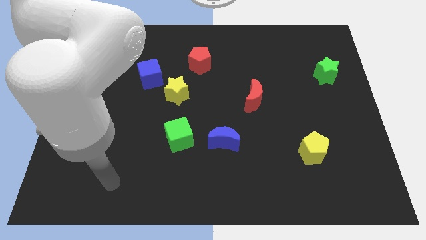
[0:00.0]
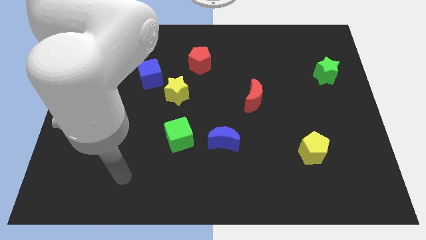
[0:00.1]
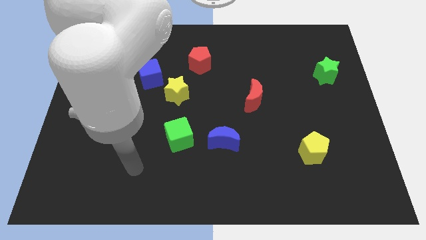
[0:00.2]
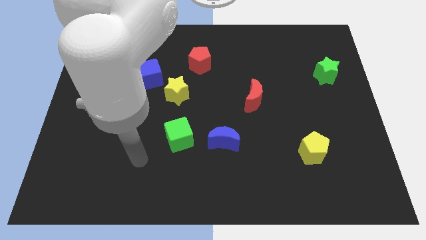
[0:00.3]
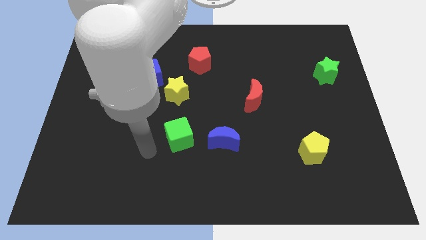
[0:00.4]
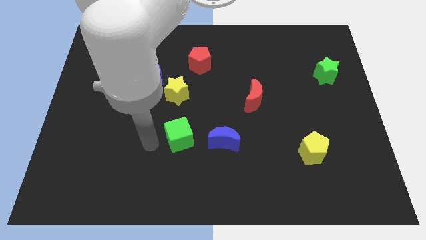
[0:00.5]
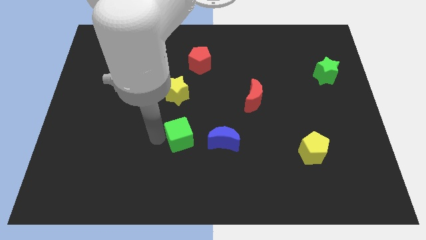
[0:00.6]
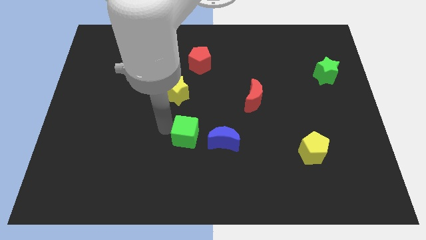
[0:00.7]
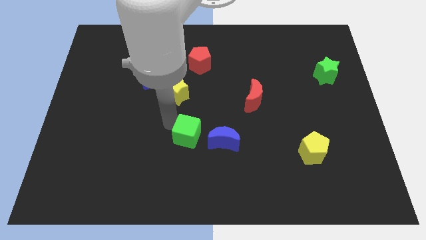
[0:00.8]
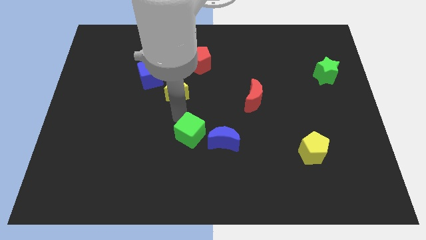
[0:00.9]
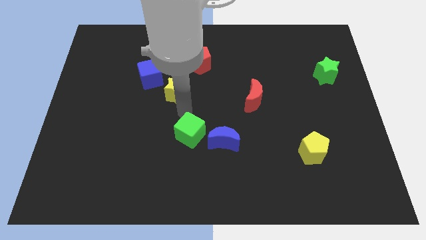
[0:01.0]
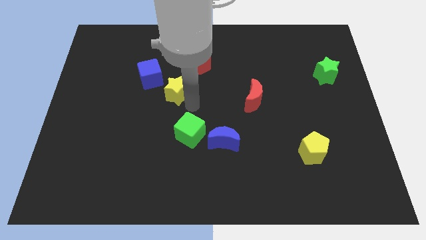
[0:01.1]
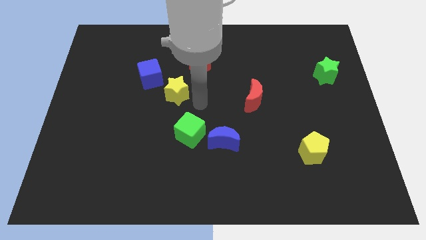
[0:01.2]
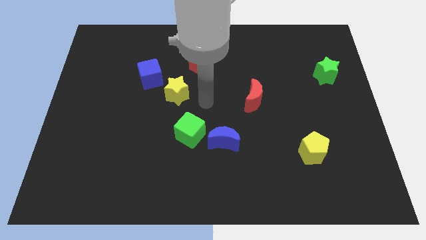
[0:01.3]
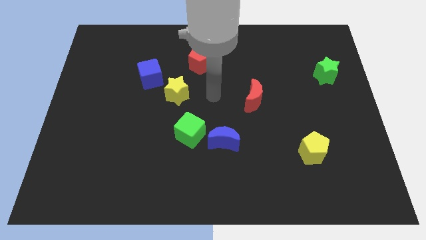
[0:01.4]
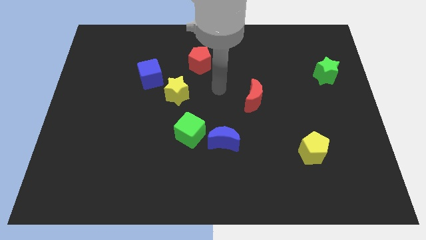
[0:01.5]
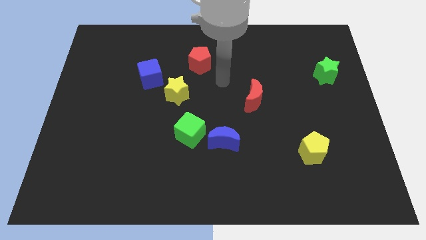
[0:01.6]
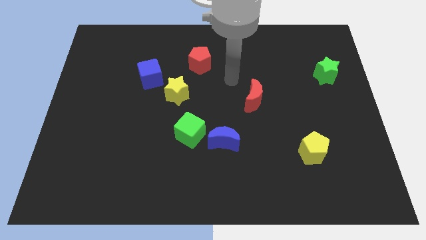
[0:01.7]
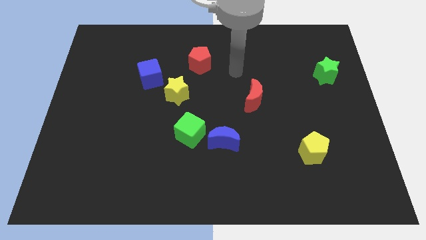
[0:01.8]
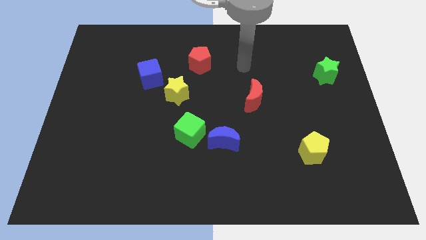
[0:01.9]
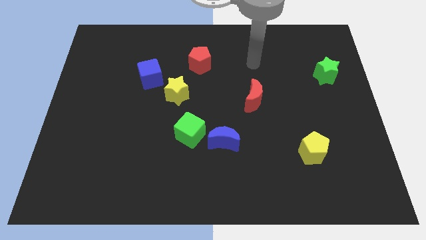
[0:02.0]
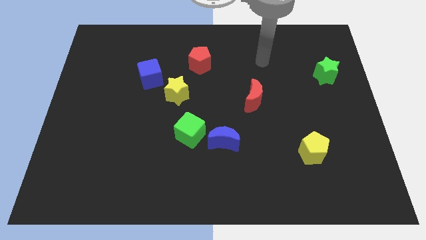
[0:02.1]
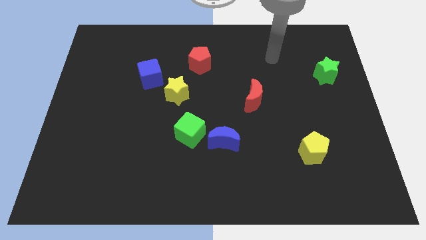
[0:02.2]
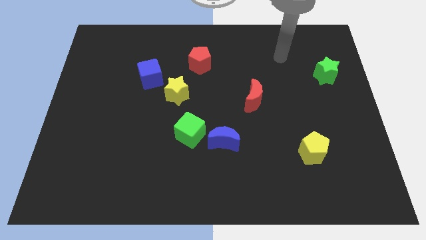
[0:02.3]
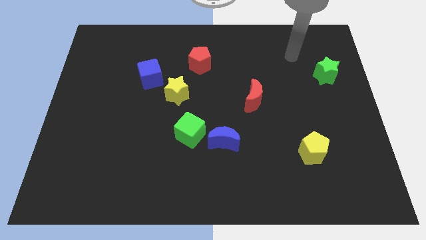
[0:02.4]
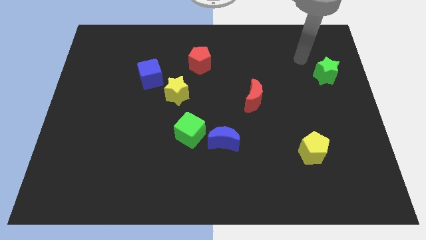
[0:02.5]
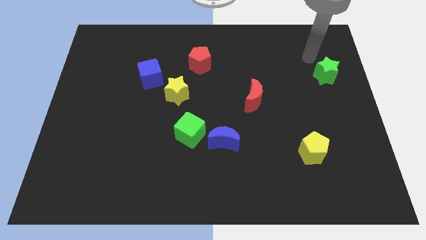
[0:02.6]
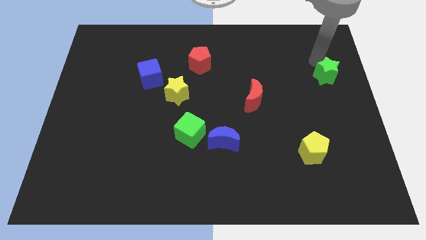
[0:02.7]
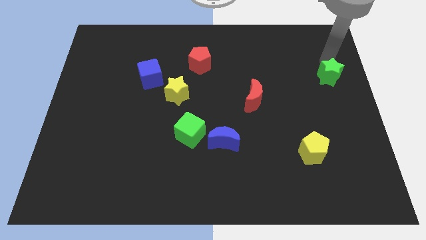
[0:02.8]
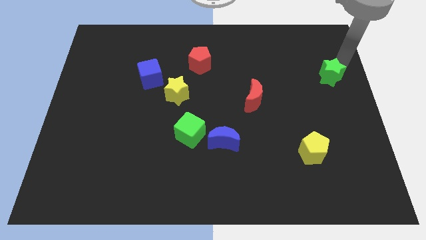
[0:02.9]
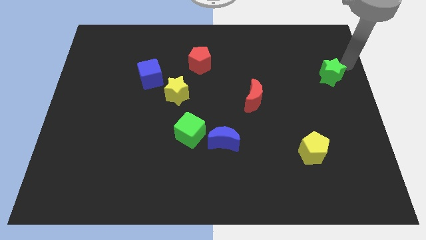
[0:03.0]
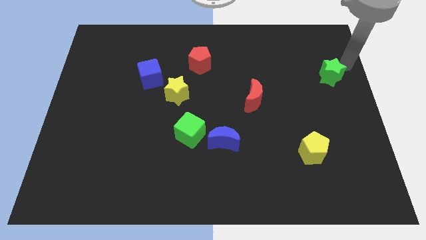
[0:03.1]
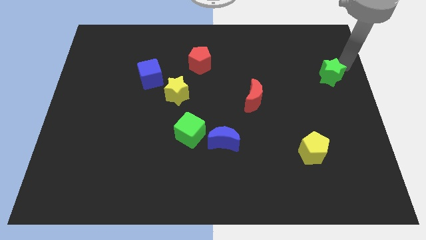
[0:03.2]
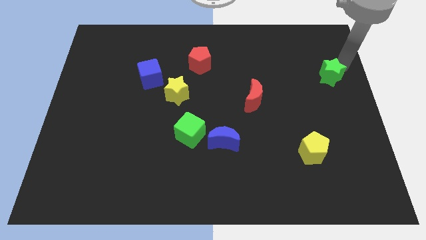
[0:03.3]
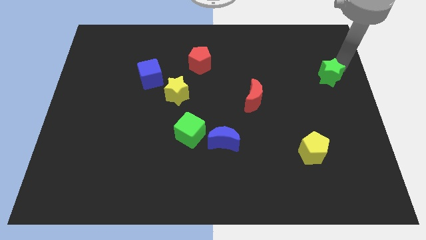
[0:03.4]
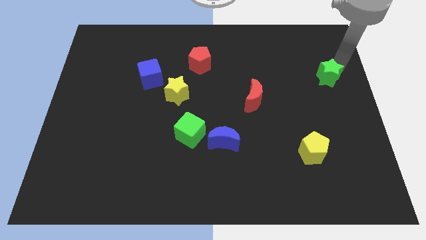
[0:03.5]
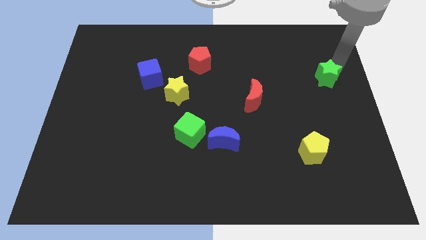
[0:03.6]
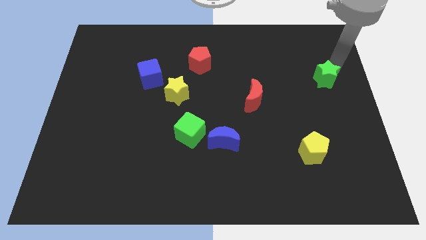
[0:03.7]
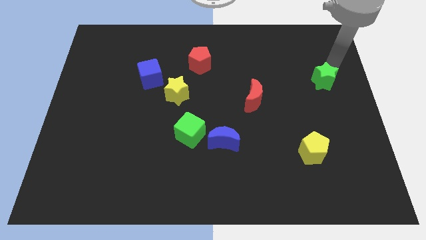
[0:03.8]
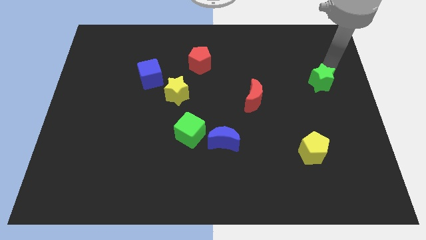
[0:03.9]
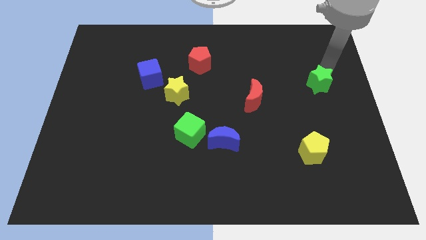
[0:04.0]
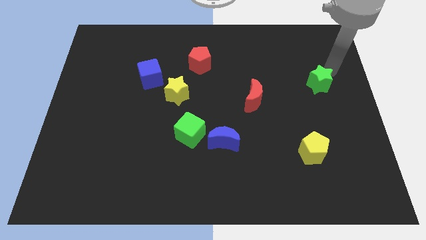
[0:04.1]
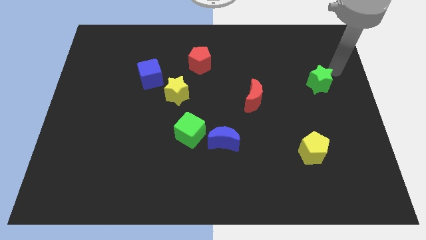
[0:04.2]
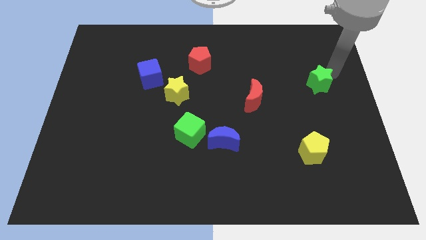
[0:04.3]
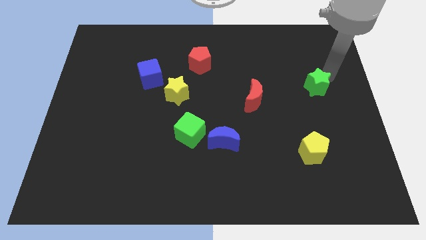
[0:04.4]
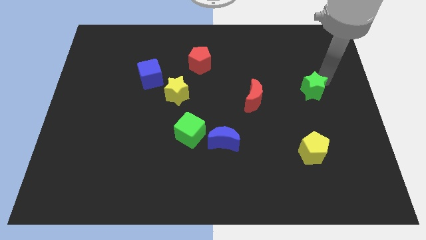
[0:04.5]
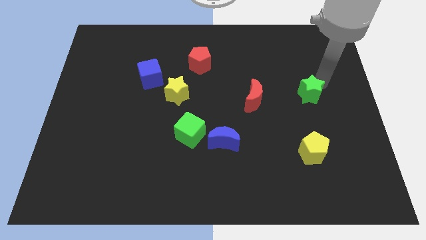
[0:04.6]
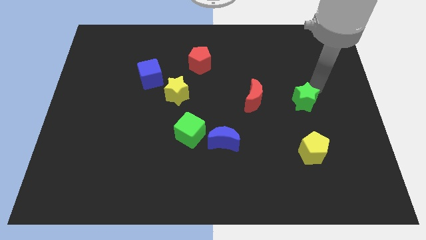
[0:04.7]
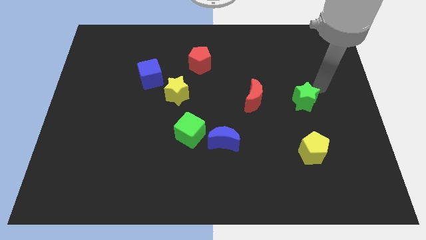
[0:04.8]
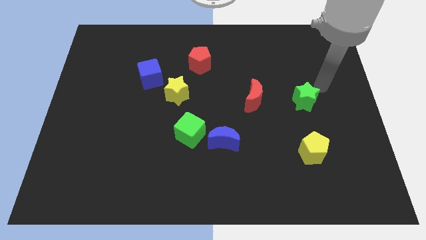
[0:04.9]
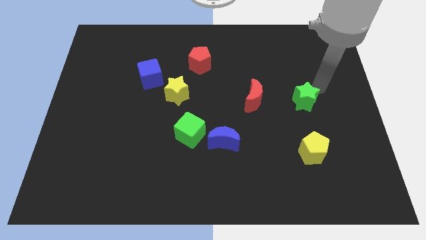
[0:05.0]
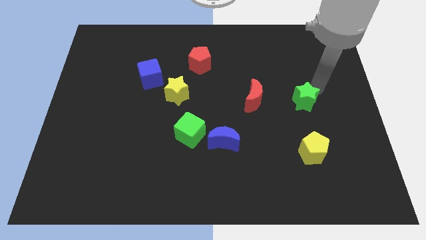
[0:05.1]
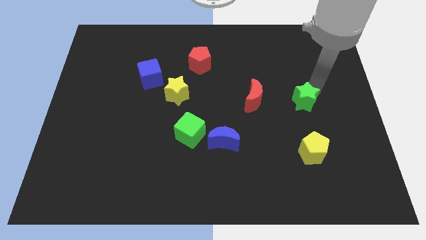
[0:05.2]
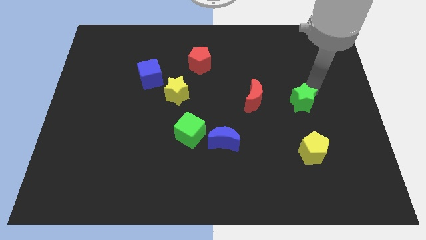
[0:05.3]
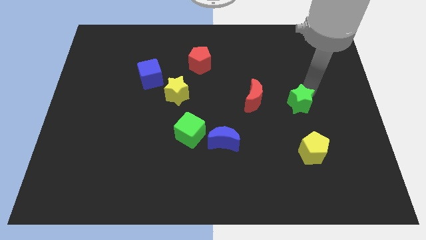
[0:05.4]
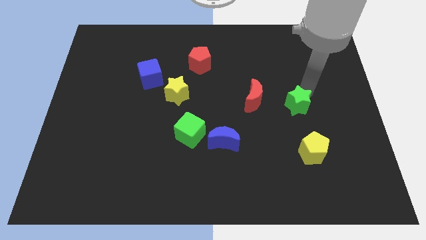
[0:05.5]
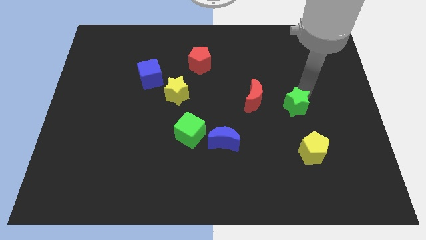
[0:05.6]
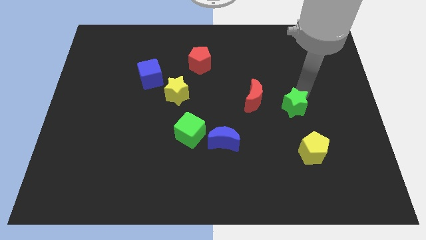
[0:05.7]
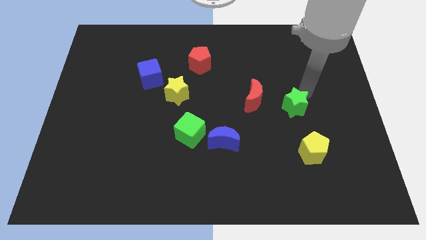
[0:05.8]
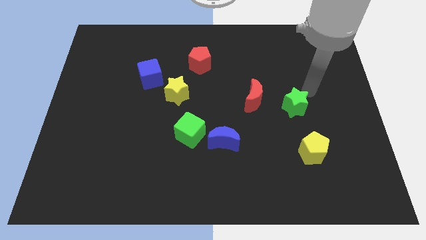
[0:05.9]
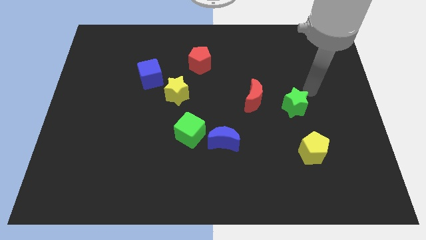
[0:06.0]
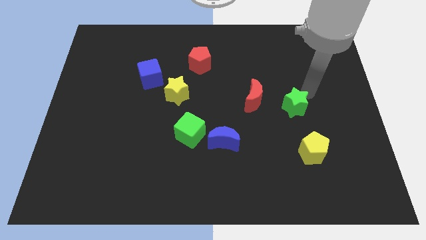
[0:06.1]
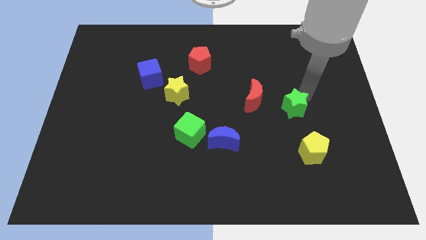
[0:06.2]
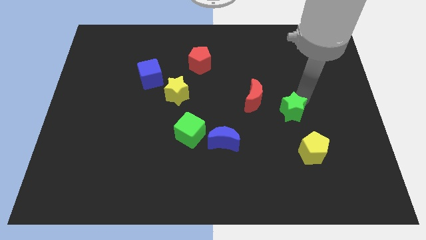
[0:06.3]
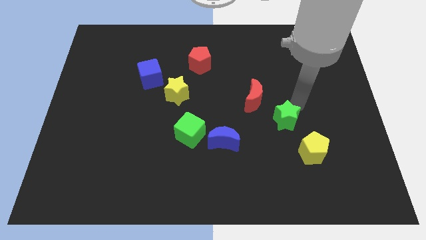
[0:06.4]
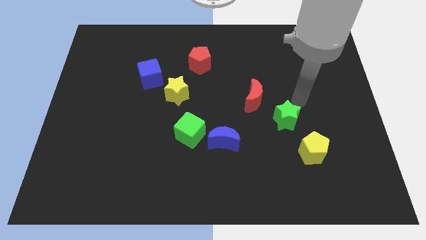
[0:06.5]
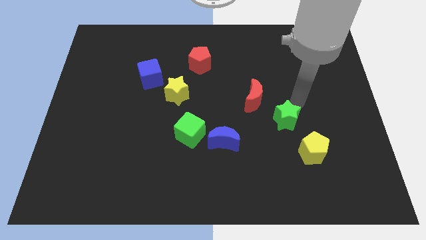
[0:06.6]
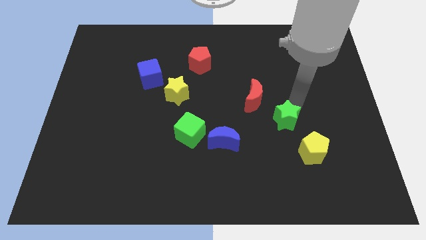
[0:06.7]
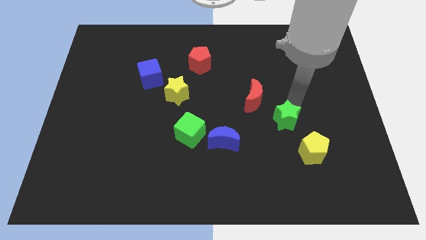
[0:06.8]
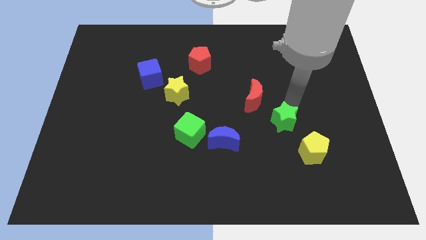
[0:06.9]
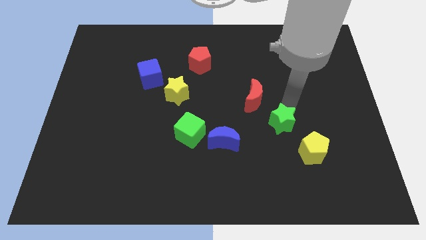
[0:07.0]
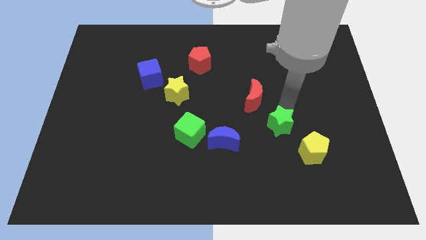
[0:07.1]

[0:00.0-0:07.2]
put the green star to the right of the blue moon
